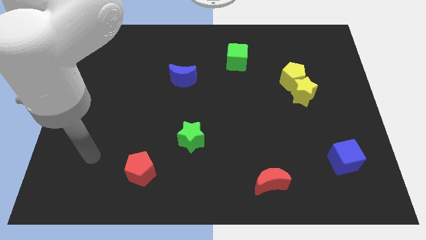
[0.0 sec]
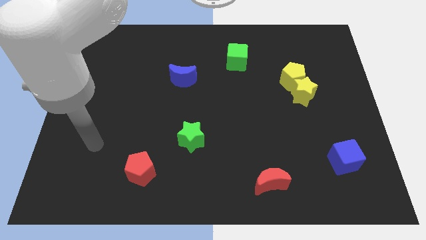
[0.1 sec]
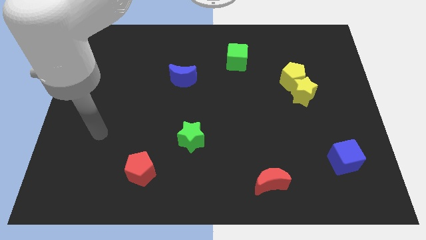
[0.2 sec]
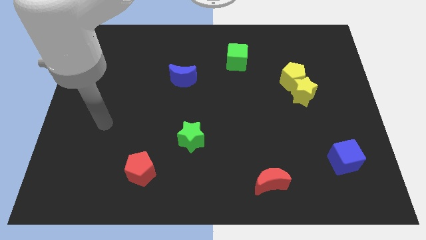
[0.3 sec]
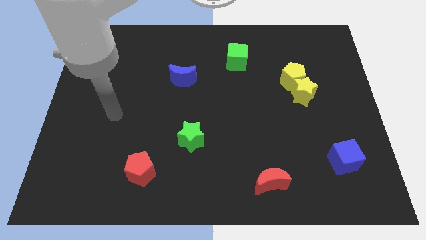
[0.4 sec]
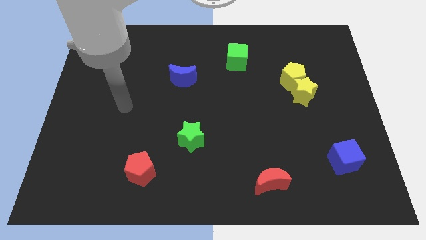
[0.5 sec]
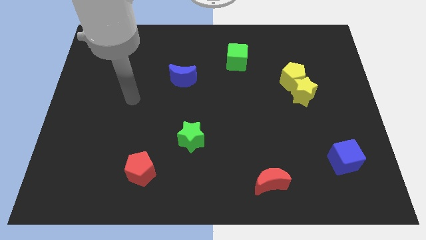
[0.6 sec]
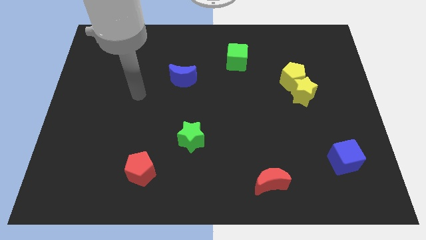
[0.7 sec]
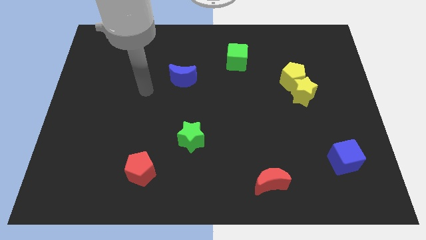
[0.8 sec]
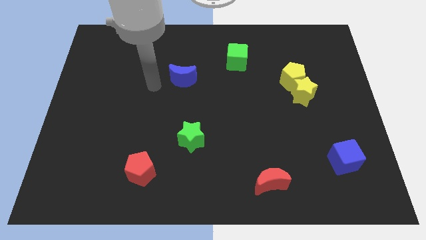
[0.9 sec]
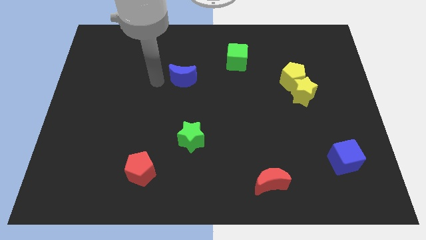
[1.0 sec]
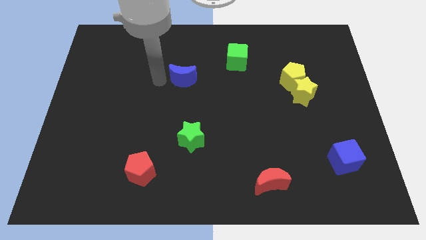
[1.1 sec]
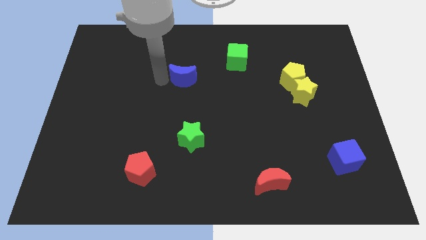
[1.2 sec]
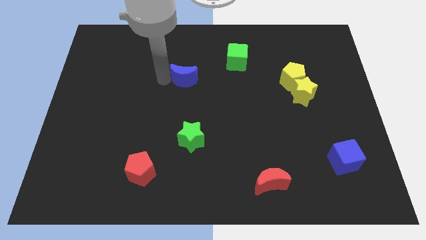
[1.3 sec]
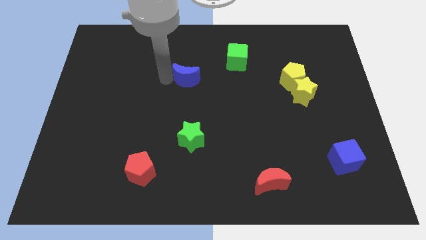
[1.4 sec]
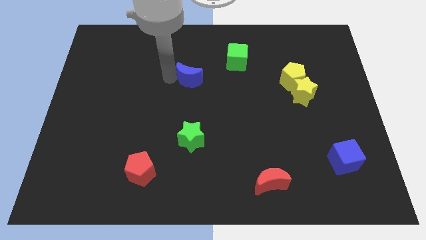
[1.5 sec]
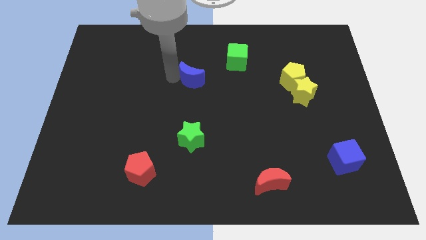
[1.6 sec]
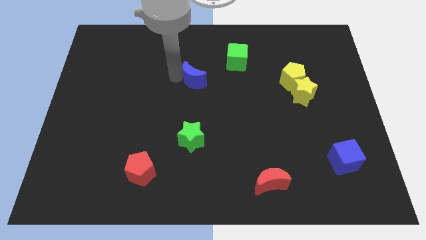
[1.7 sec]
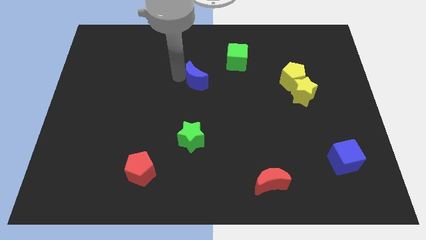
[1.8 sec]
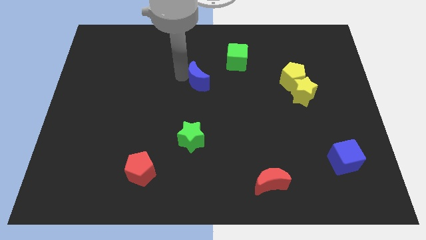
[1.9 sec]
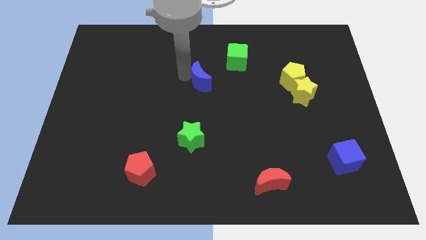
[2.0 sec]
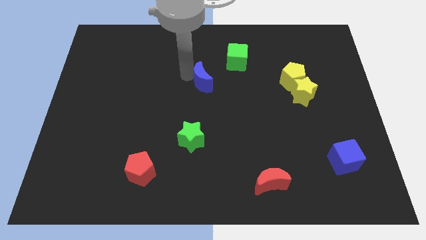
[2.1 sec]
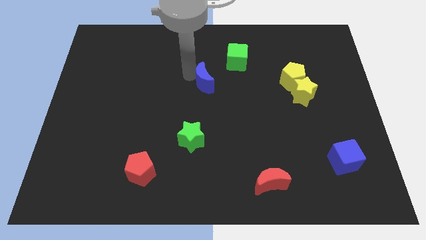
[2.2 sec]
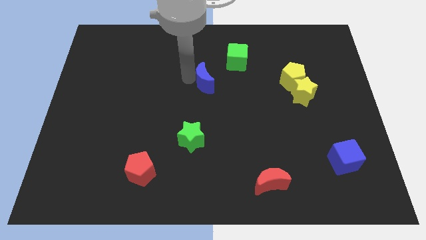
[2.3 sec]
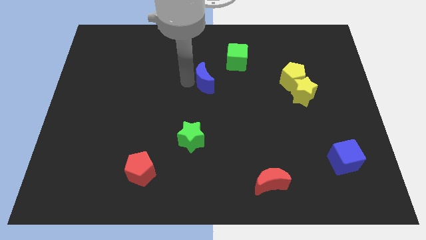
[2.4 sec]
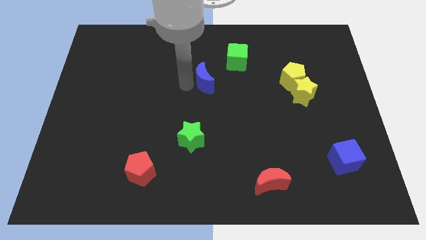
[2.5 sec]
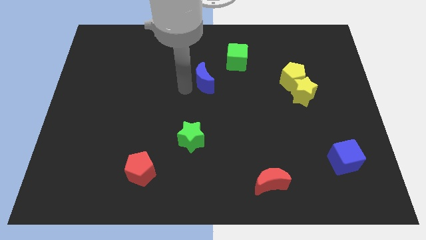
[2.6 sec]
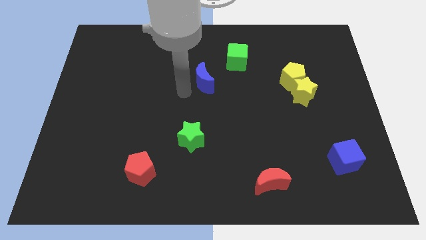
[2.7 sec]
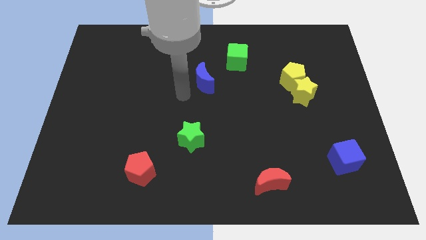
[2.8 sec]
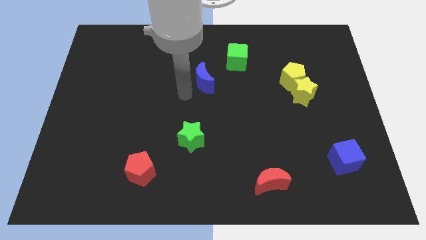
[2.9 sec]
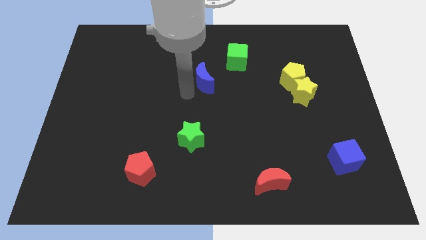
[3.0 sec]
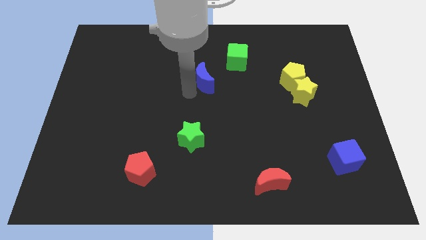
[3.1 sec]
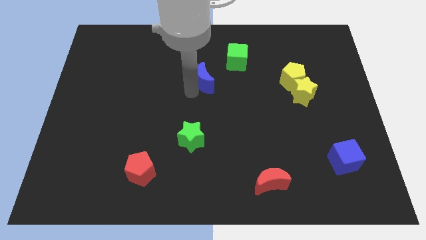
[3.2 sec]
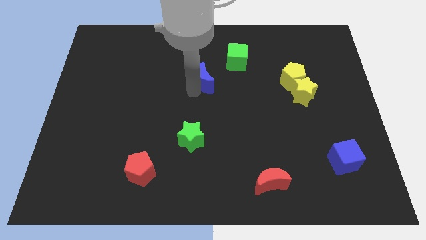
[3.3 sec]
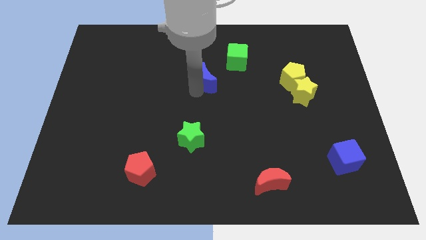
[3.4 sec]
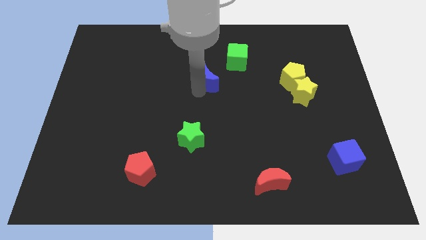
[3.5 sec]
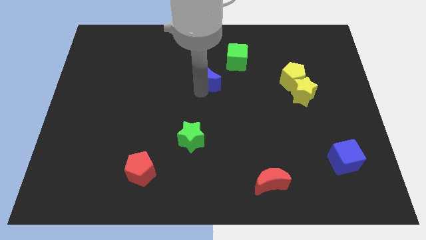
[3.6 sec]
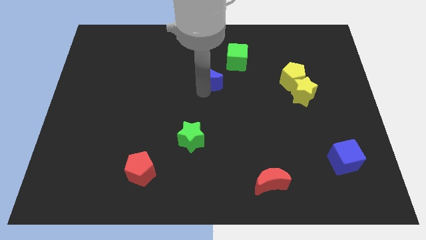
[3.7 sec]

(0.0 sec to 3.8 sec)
push the blue moon to the right slightly

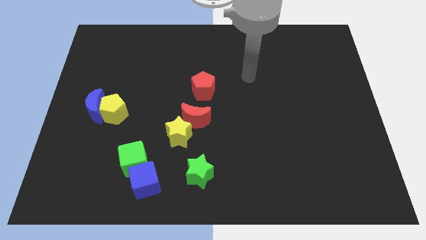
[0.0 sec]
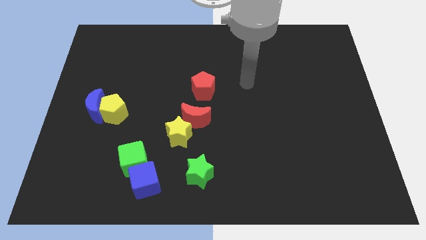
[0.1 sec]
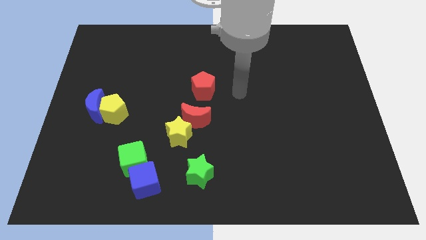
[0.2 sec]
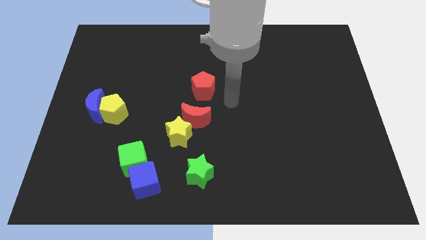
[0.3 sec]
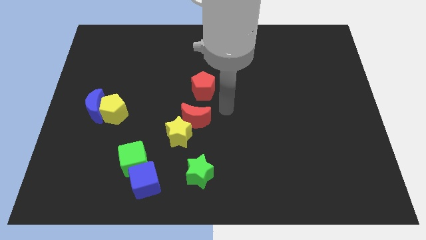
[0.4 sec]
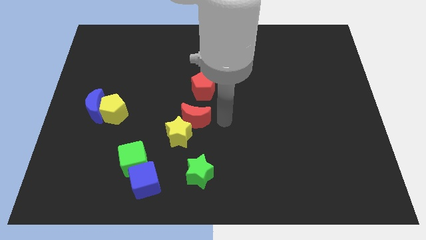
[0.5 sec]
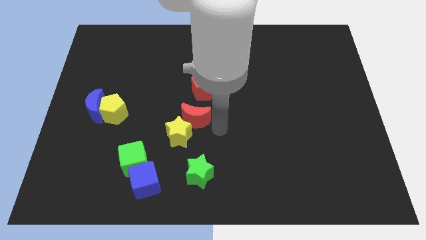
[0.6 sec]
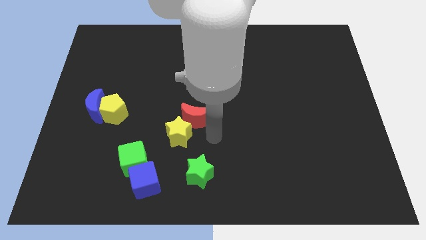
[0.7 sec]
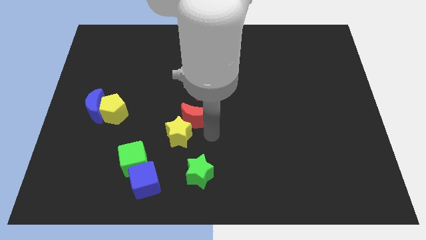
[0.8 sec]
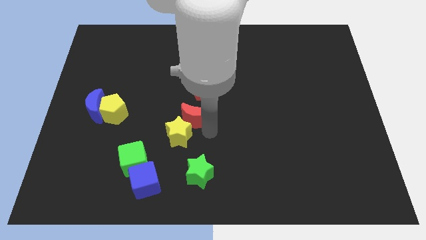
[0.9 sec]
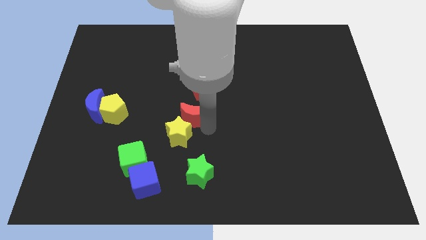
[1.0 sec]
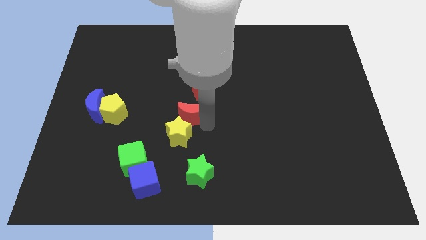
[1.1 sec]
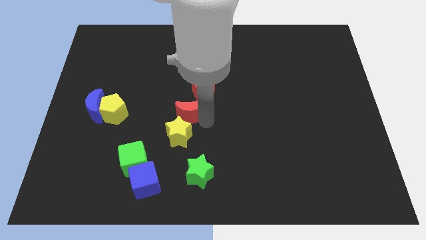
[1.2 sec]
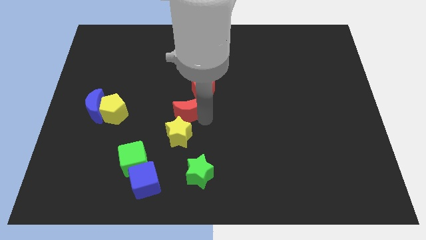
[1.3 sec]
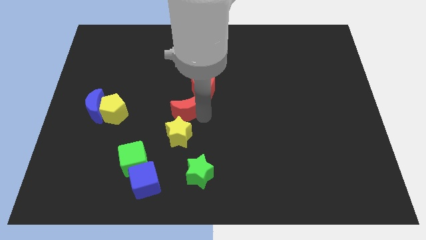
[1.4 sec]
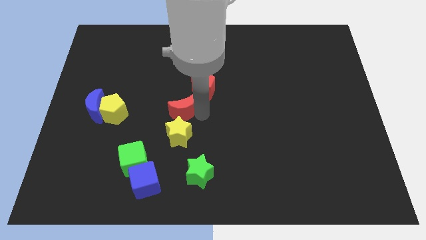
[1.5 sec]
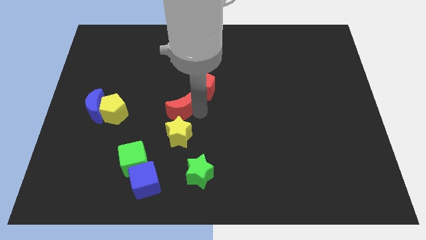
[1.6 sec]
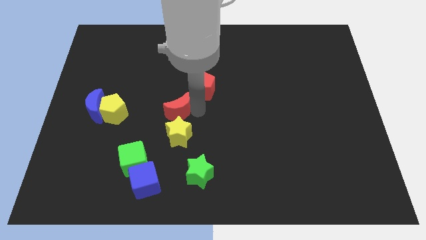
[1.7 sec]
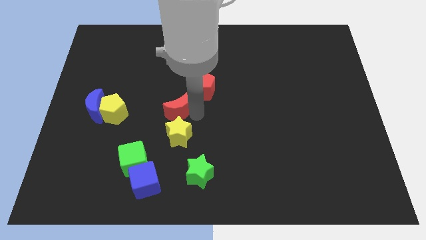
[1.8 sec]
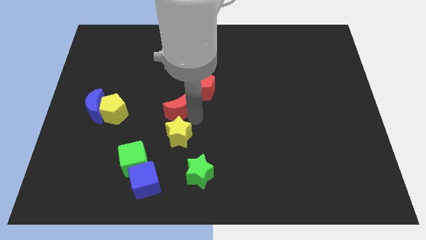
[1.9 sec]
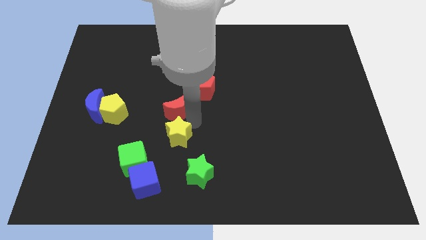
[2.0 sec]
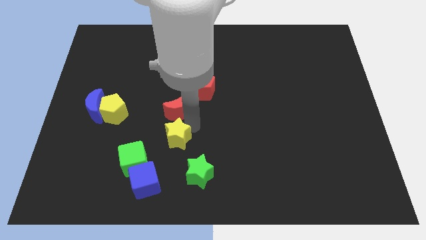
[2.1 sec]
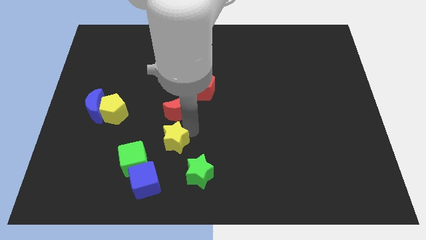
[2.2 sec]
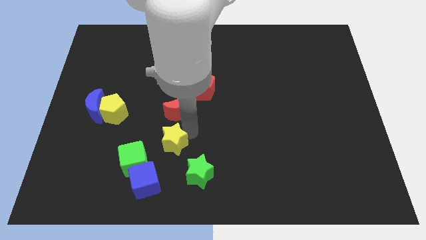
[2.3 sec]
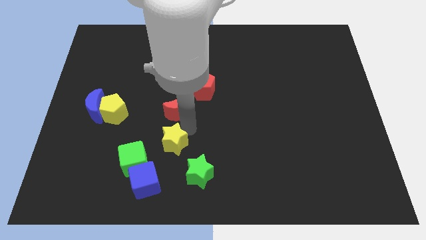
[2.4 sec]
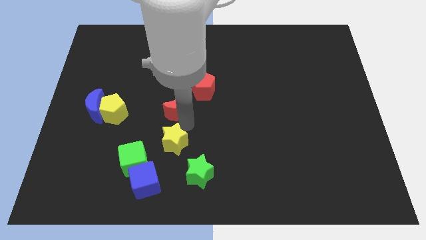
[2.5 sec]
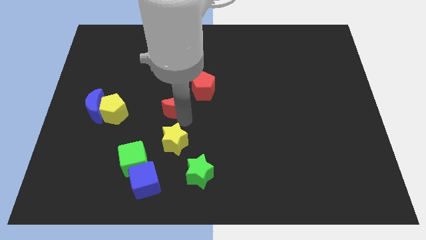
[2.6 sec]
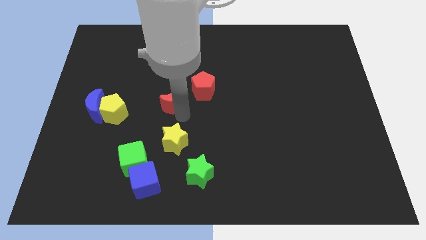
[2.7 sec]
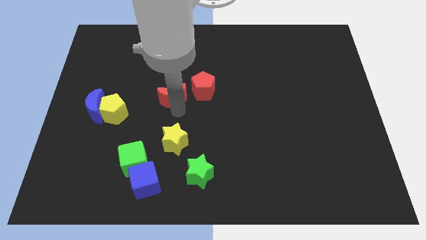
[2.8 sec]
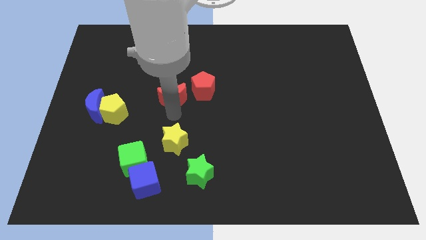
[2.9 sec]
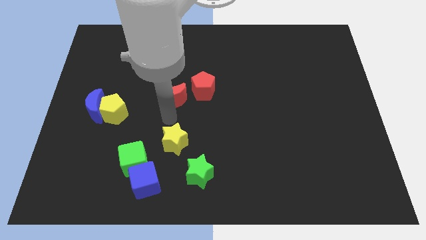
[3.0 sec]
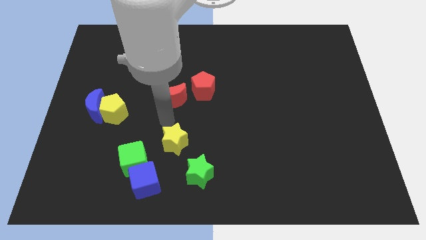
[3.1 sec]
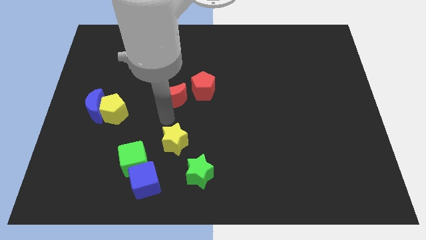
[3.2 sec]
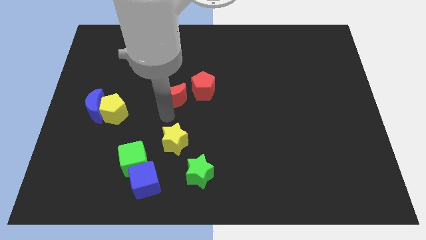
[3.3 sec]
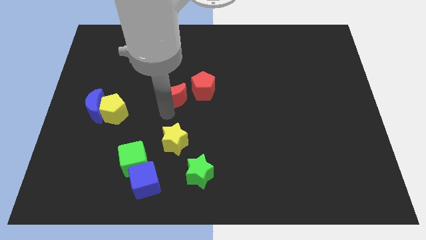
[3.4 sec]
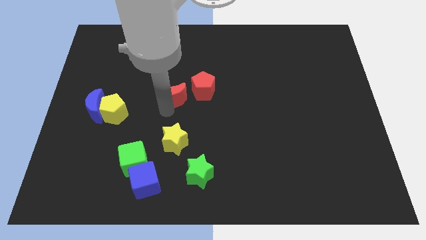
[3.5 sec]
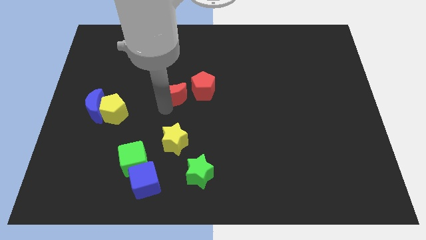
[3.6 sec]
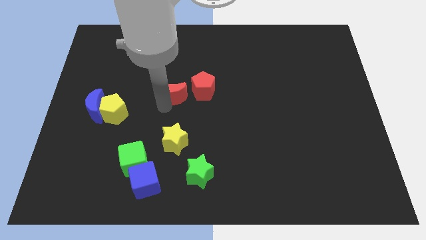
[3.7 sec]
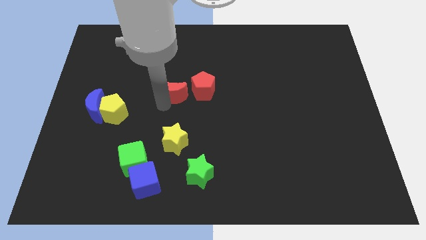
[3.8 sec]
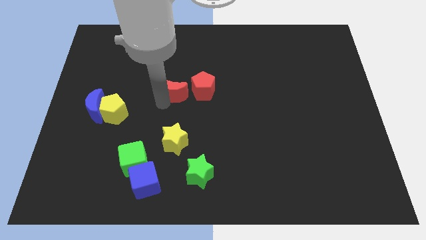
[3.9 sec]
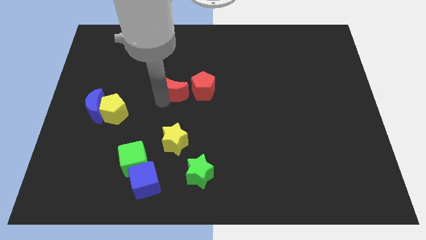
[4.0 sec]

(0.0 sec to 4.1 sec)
slightly move the red moon up
